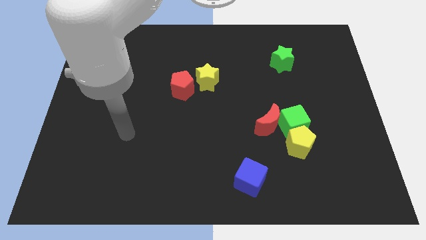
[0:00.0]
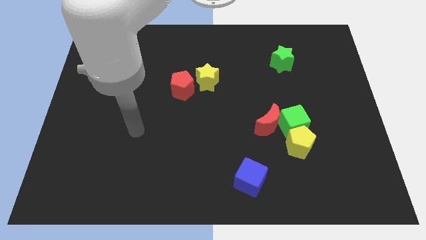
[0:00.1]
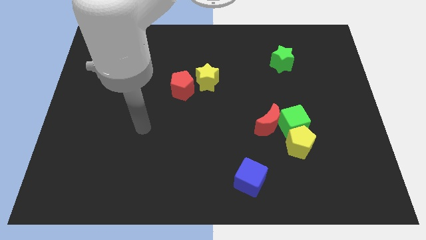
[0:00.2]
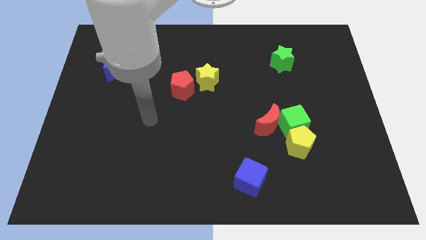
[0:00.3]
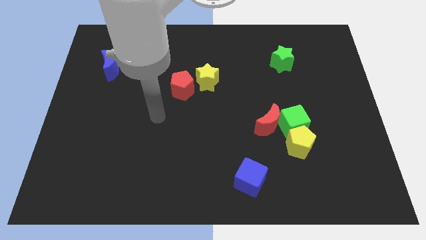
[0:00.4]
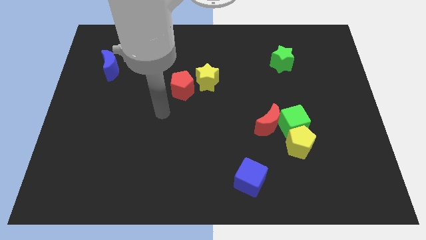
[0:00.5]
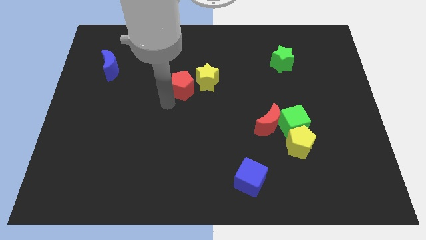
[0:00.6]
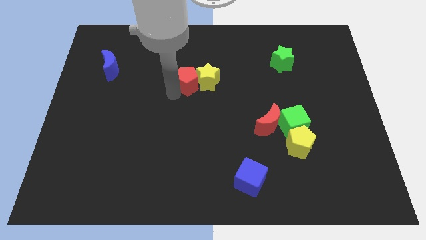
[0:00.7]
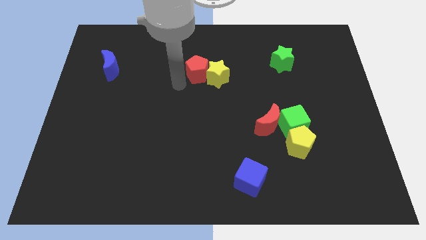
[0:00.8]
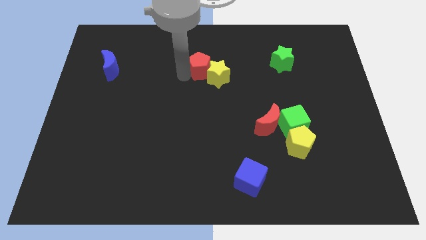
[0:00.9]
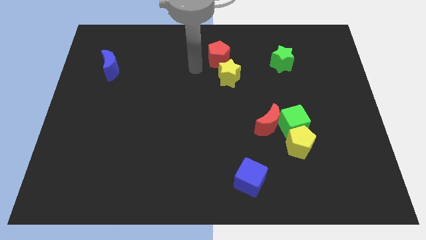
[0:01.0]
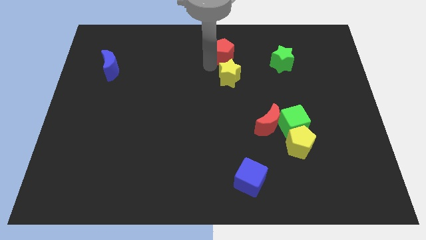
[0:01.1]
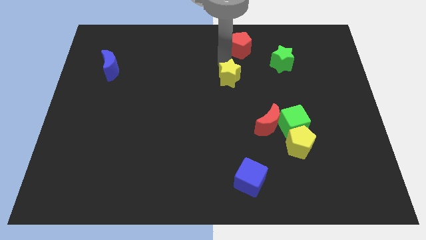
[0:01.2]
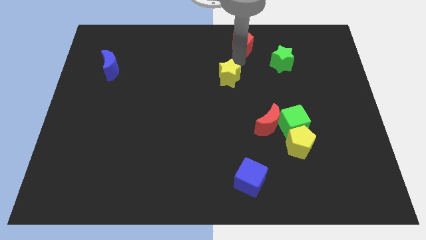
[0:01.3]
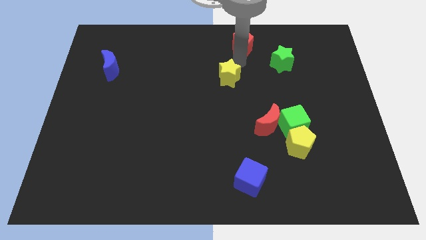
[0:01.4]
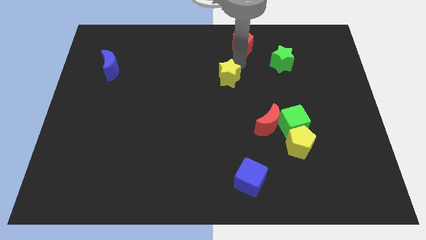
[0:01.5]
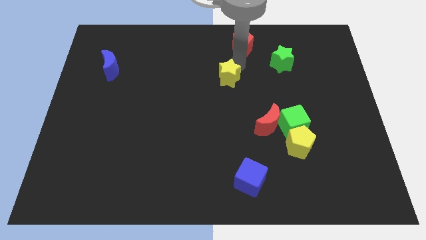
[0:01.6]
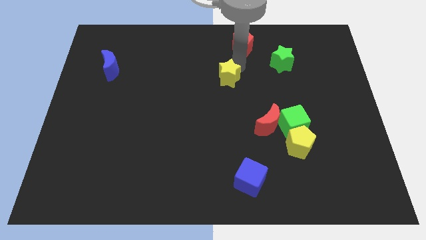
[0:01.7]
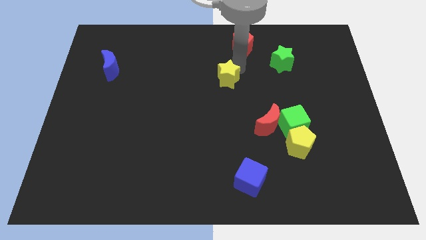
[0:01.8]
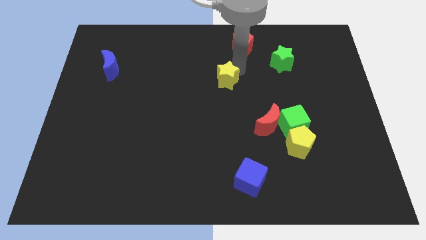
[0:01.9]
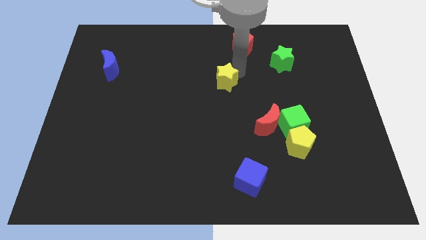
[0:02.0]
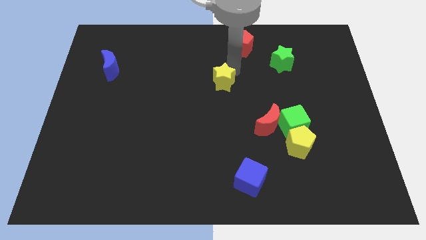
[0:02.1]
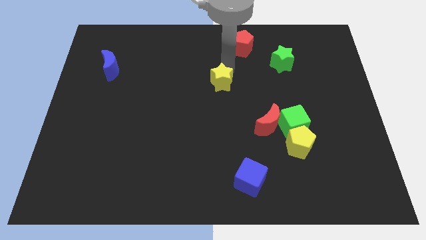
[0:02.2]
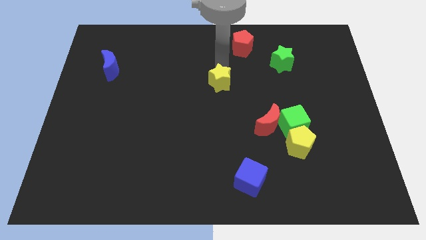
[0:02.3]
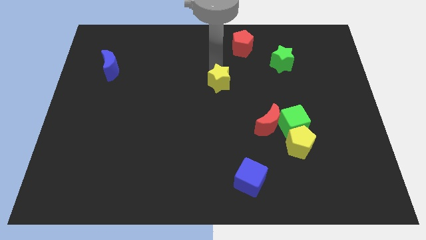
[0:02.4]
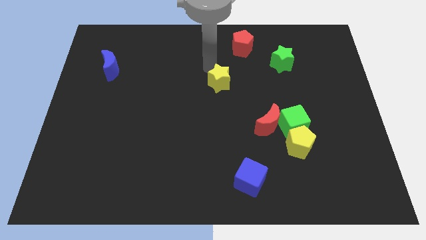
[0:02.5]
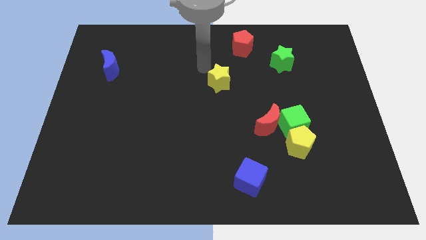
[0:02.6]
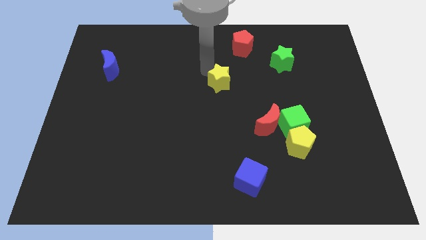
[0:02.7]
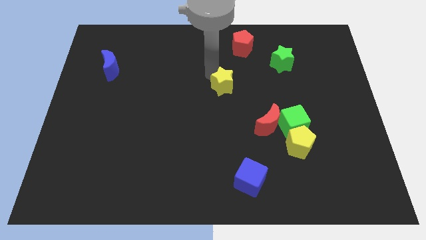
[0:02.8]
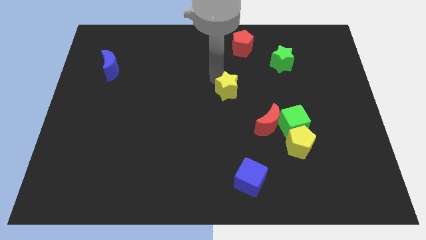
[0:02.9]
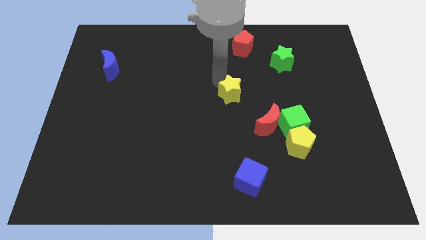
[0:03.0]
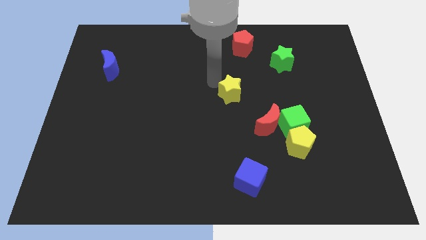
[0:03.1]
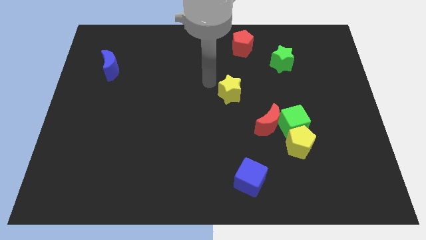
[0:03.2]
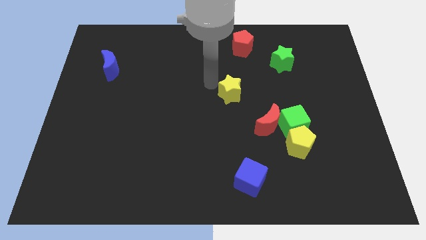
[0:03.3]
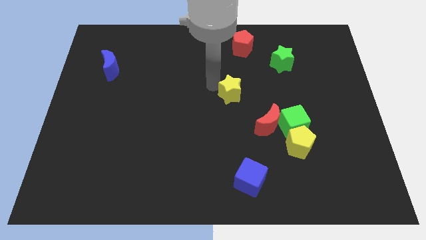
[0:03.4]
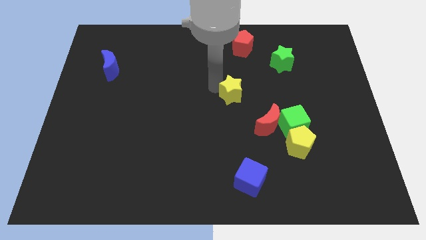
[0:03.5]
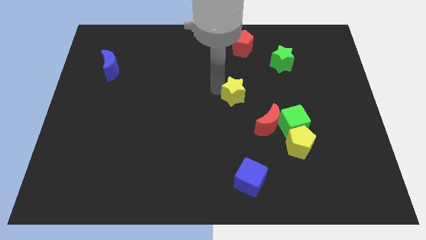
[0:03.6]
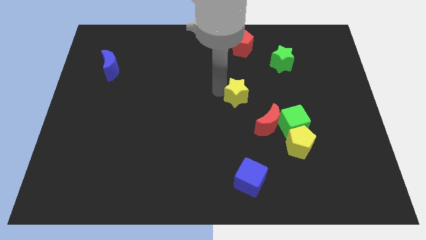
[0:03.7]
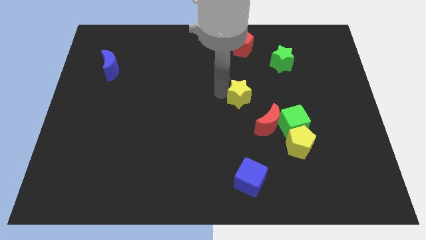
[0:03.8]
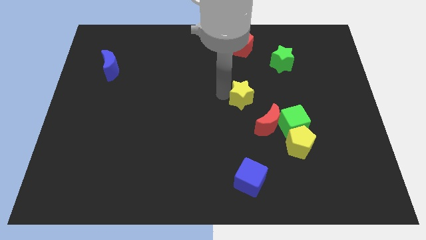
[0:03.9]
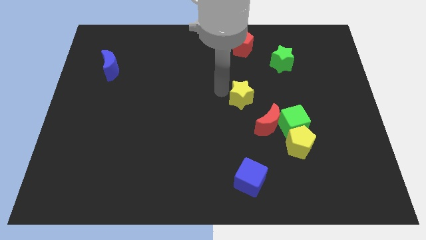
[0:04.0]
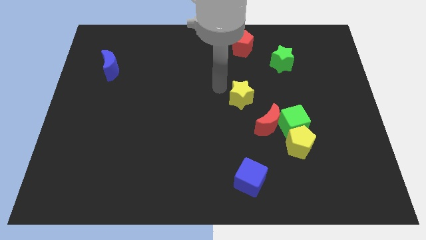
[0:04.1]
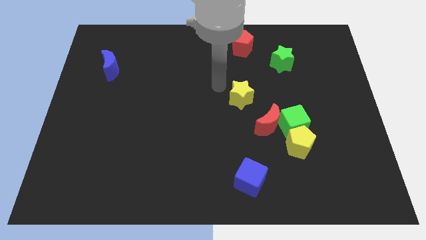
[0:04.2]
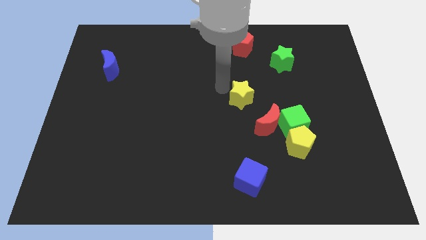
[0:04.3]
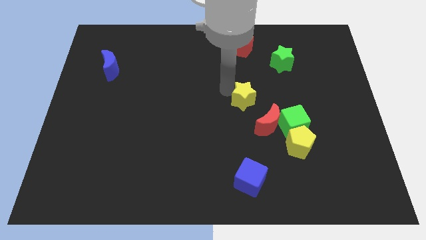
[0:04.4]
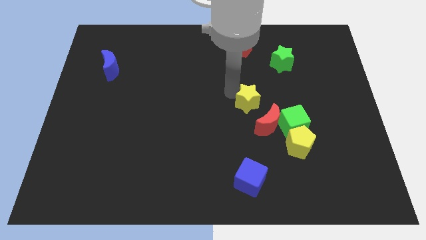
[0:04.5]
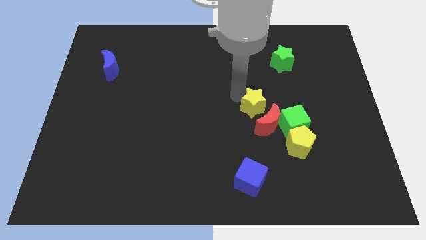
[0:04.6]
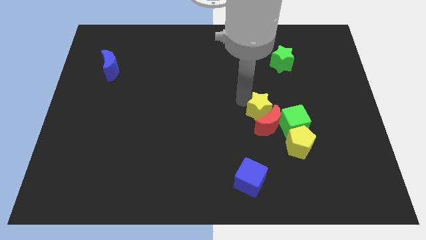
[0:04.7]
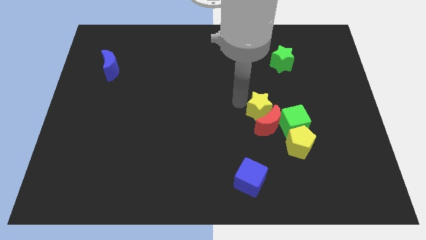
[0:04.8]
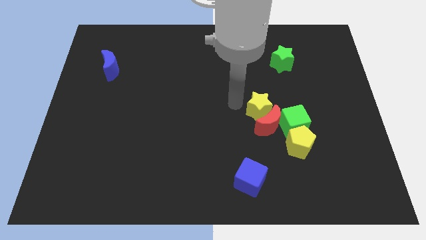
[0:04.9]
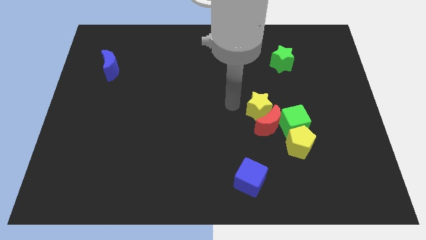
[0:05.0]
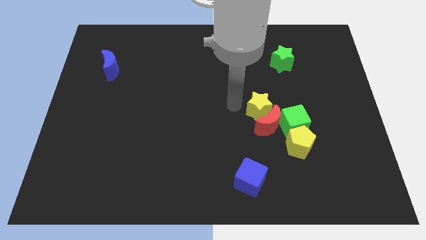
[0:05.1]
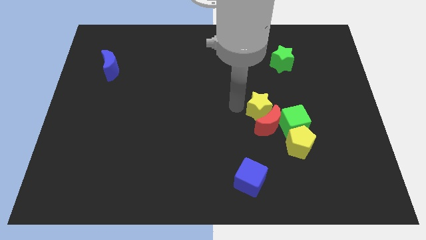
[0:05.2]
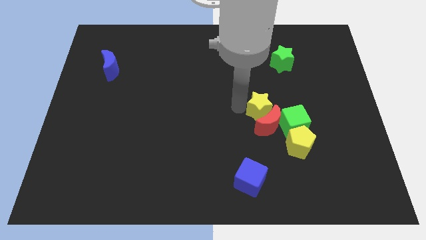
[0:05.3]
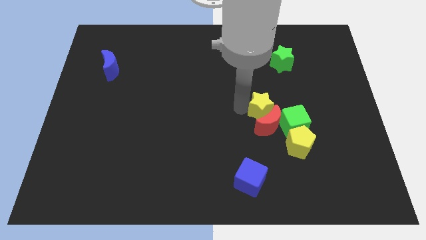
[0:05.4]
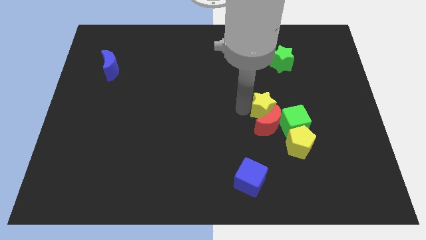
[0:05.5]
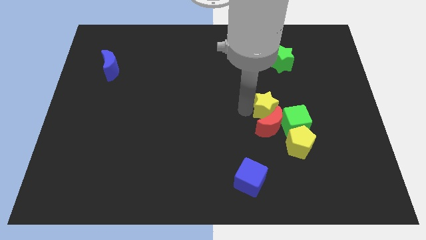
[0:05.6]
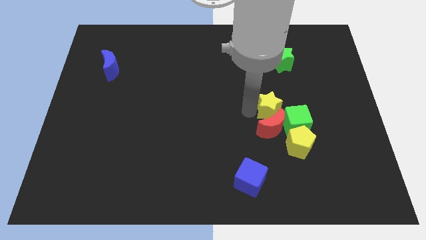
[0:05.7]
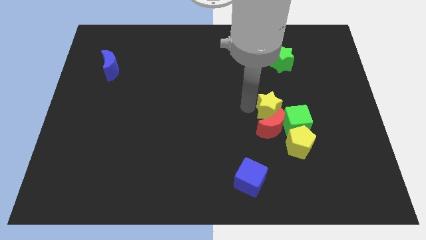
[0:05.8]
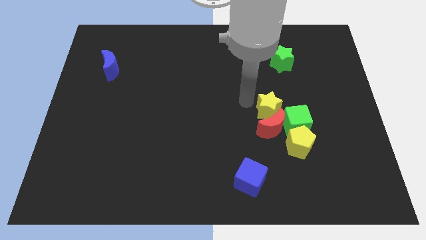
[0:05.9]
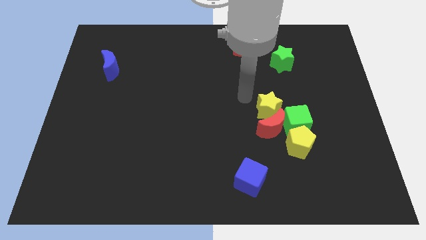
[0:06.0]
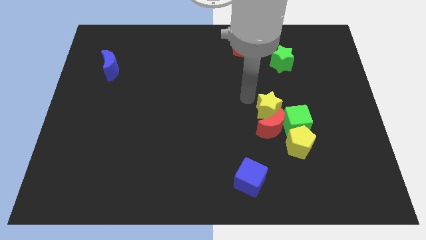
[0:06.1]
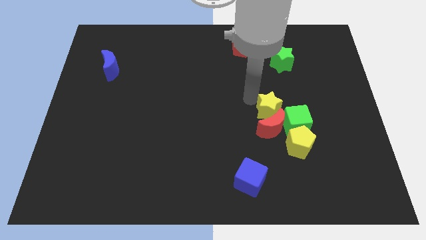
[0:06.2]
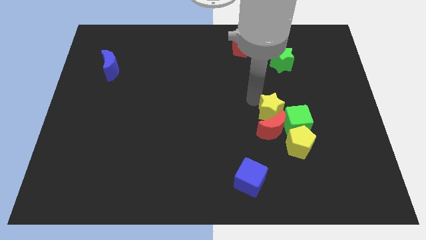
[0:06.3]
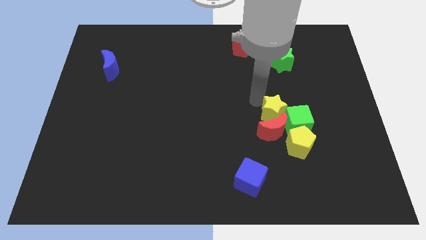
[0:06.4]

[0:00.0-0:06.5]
move the yellow star next to the green cube

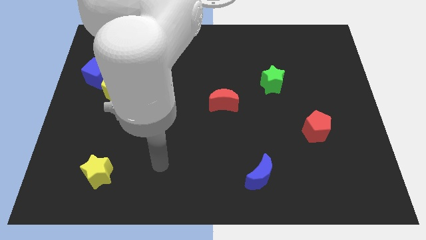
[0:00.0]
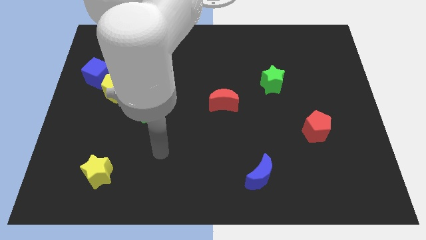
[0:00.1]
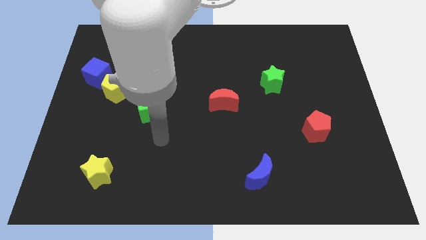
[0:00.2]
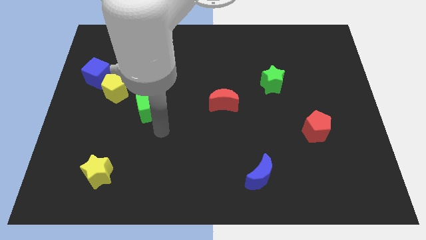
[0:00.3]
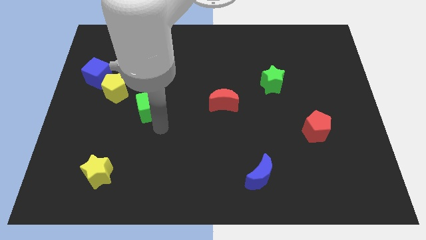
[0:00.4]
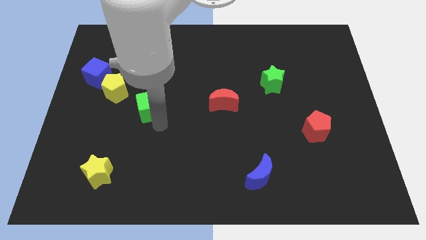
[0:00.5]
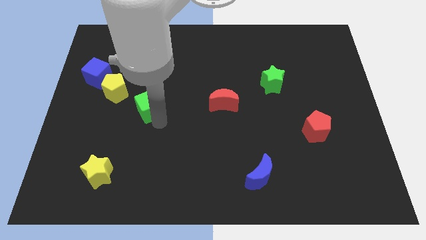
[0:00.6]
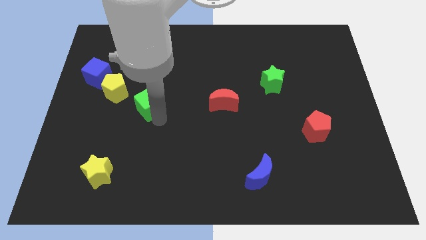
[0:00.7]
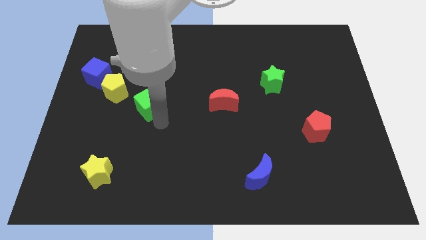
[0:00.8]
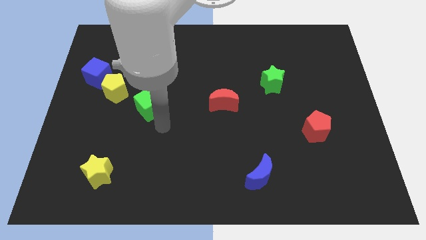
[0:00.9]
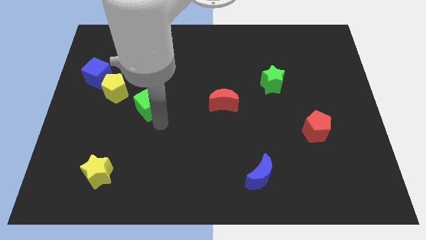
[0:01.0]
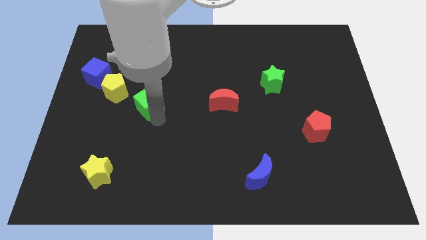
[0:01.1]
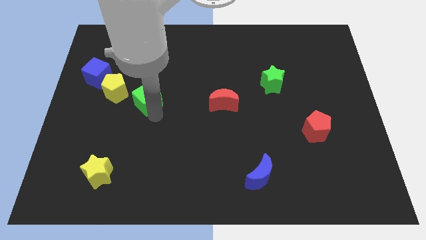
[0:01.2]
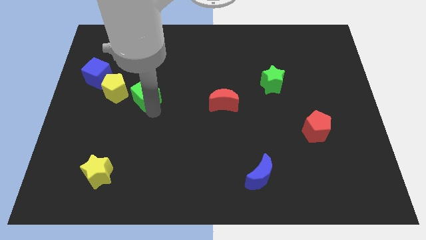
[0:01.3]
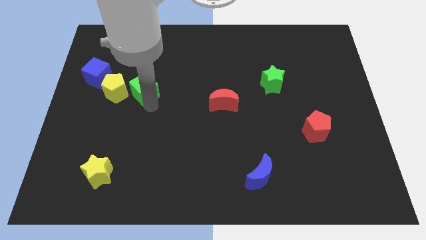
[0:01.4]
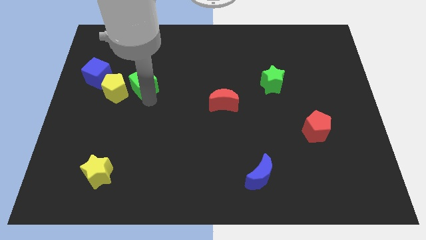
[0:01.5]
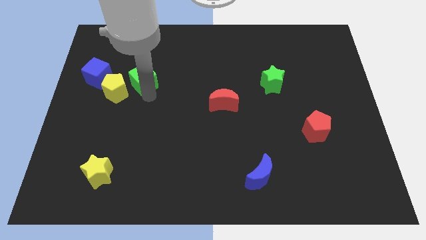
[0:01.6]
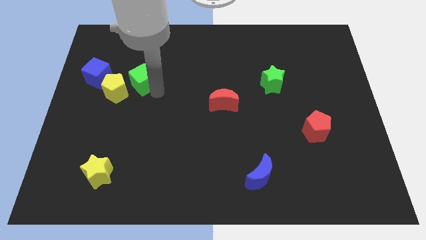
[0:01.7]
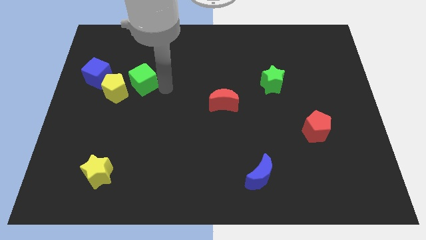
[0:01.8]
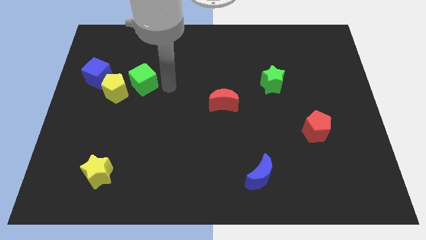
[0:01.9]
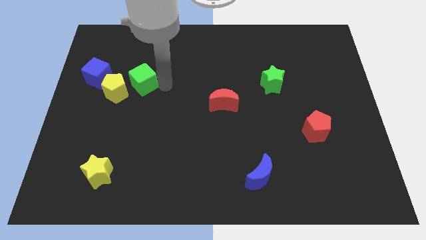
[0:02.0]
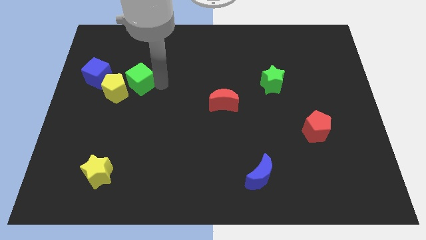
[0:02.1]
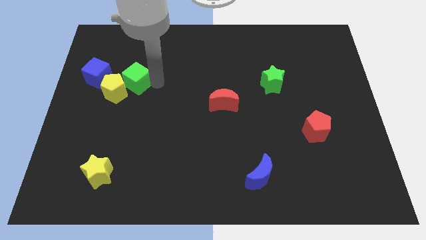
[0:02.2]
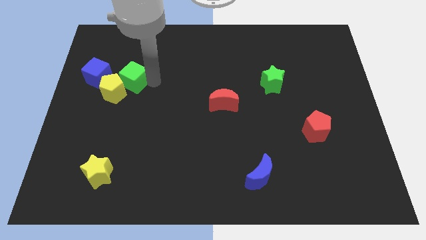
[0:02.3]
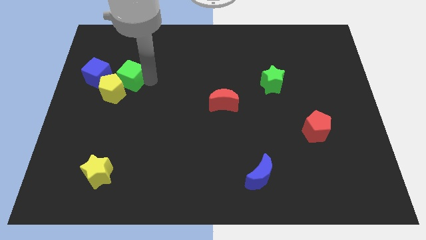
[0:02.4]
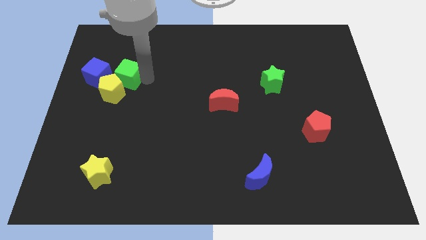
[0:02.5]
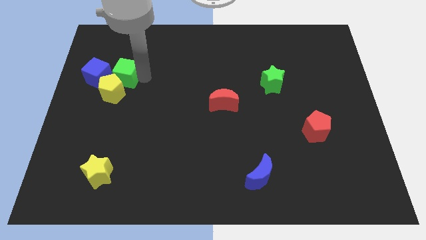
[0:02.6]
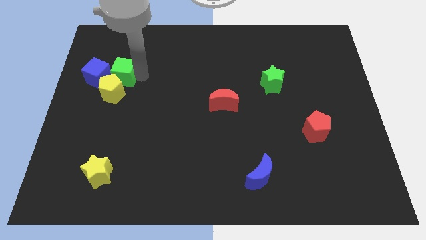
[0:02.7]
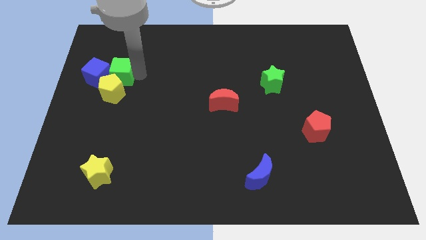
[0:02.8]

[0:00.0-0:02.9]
put the green cube towards the blue cube
